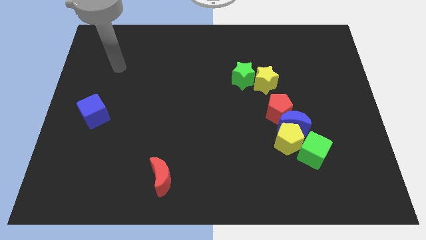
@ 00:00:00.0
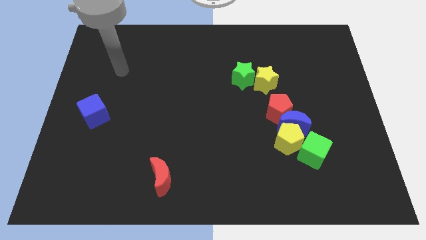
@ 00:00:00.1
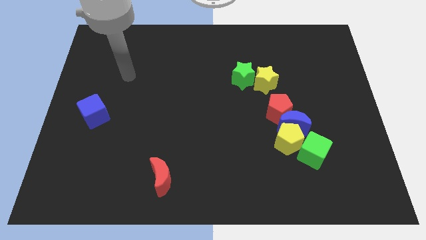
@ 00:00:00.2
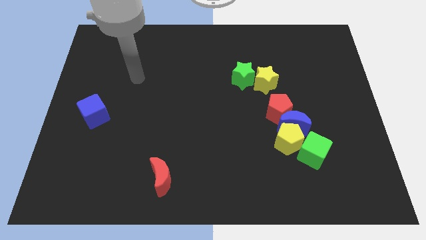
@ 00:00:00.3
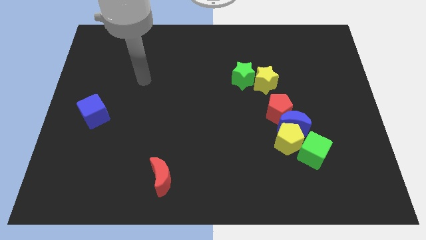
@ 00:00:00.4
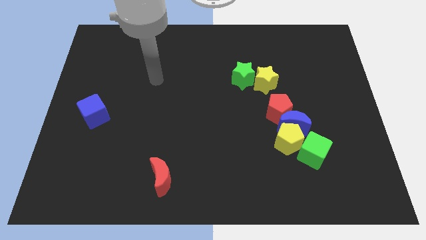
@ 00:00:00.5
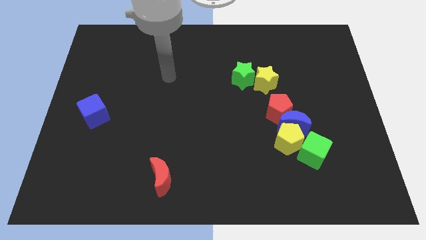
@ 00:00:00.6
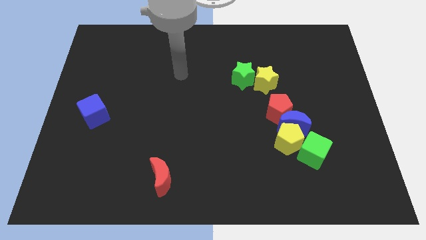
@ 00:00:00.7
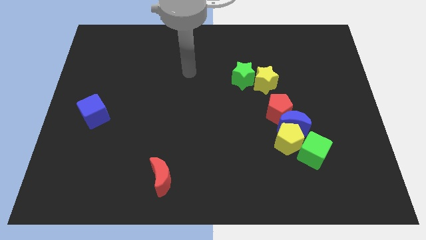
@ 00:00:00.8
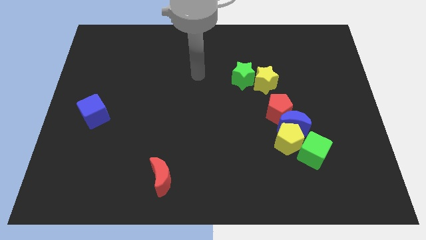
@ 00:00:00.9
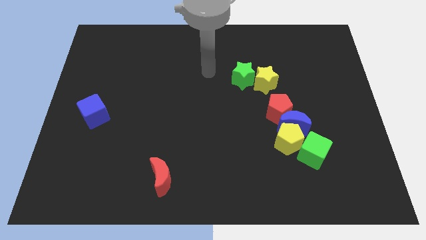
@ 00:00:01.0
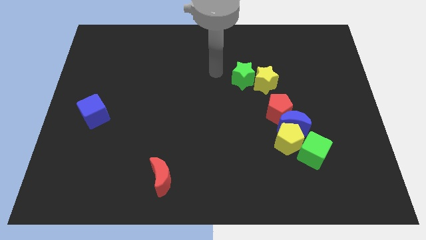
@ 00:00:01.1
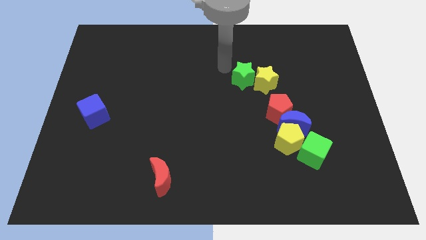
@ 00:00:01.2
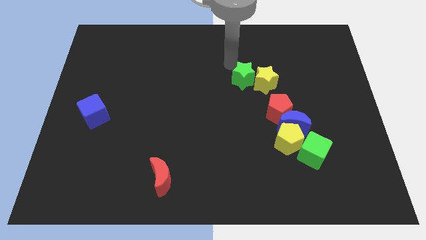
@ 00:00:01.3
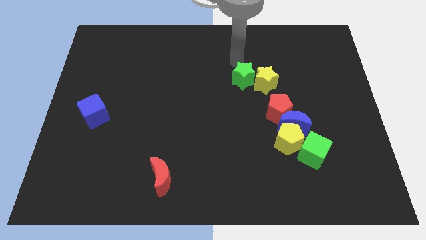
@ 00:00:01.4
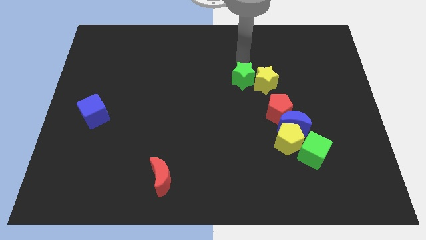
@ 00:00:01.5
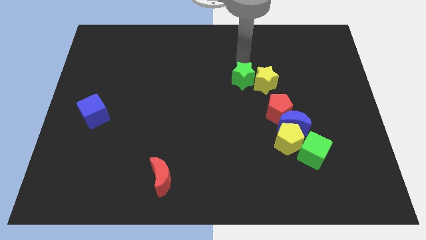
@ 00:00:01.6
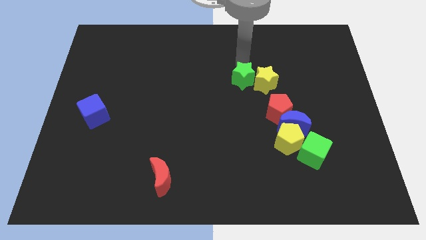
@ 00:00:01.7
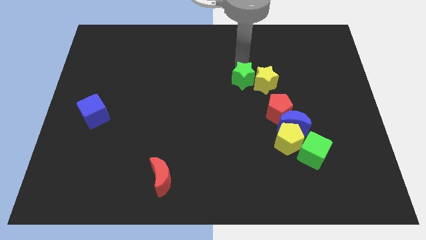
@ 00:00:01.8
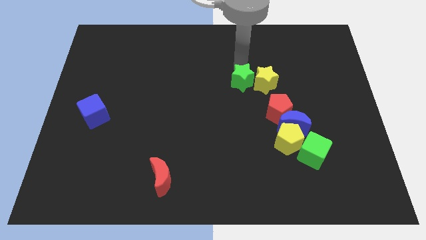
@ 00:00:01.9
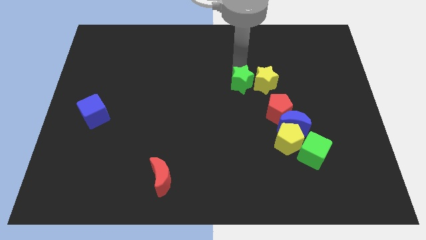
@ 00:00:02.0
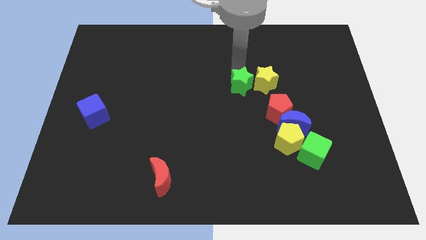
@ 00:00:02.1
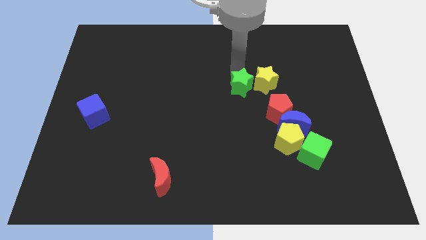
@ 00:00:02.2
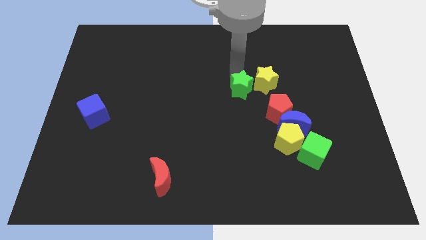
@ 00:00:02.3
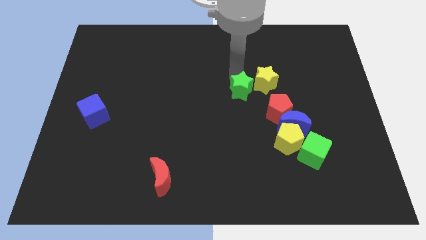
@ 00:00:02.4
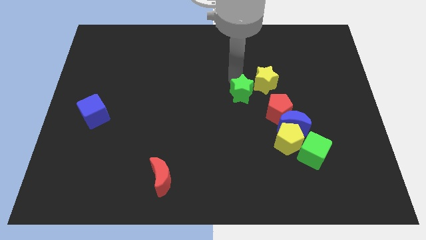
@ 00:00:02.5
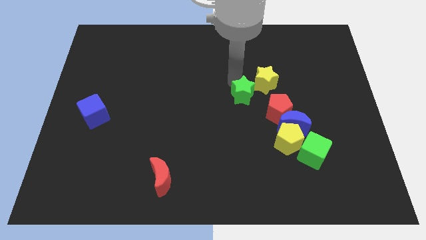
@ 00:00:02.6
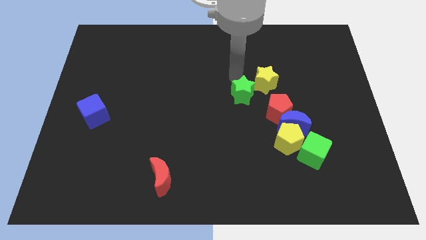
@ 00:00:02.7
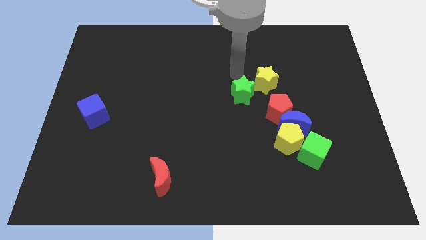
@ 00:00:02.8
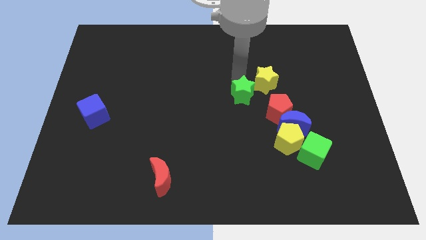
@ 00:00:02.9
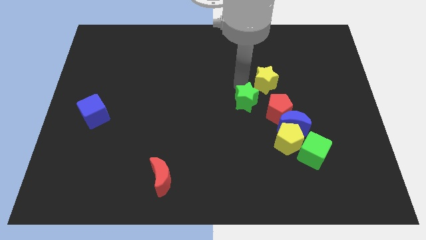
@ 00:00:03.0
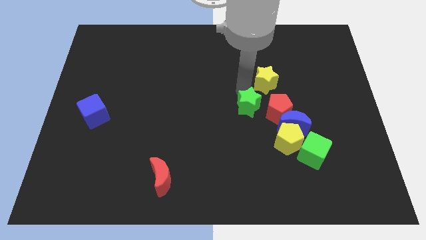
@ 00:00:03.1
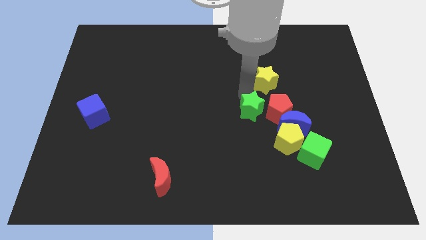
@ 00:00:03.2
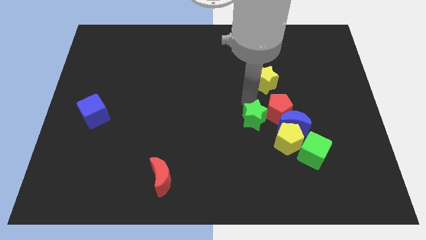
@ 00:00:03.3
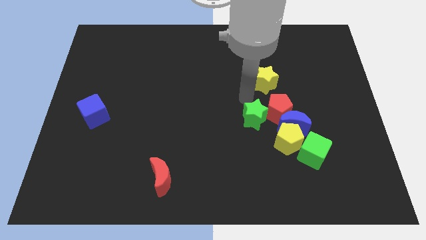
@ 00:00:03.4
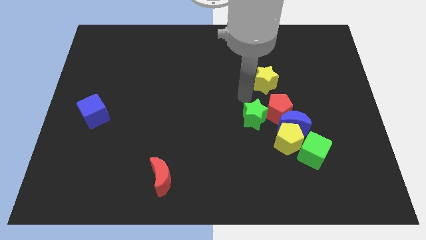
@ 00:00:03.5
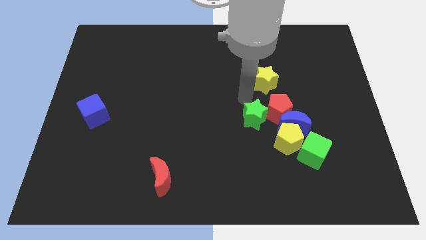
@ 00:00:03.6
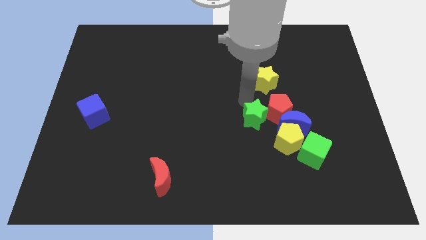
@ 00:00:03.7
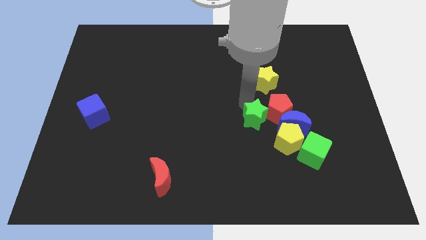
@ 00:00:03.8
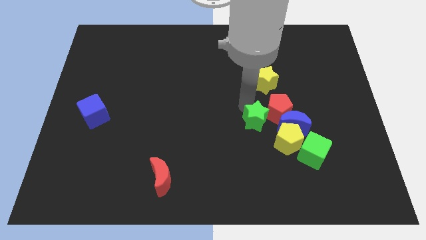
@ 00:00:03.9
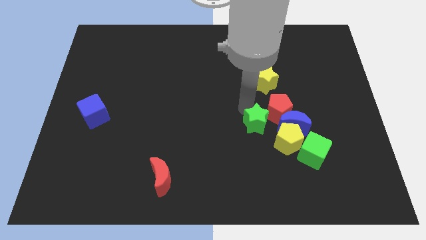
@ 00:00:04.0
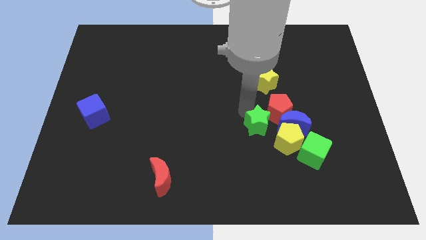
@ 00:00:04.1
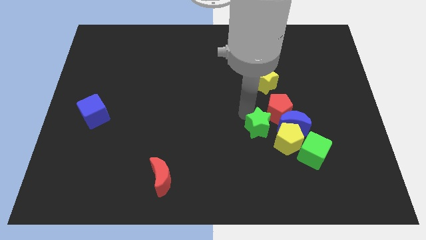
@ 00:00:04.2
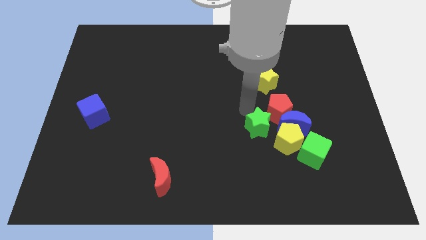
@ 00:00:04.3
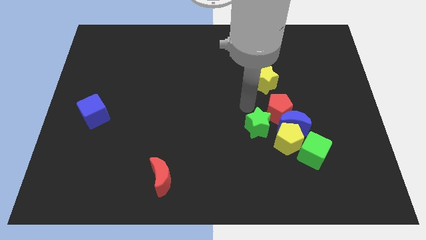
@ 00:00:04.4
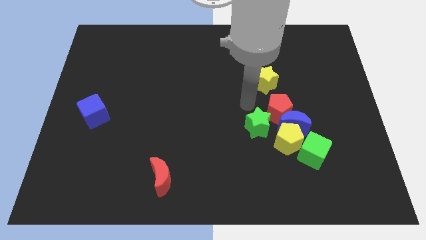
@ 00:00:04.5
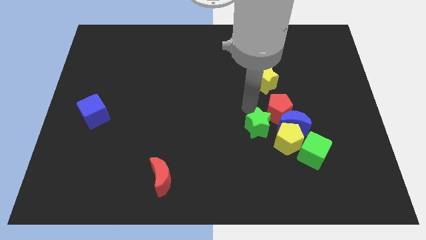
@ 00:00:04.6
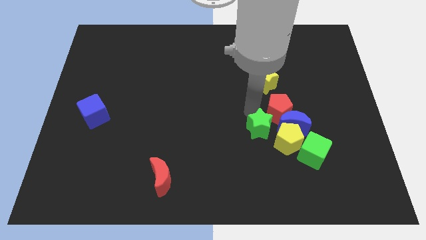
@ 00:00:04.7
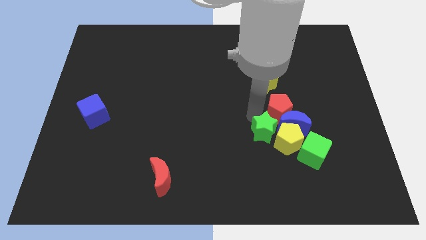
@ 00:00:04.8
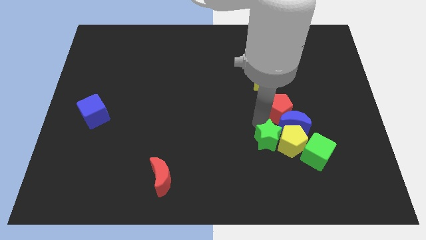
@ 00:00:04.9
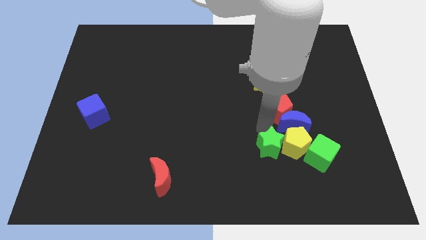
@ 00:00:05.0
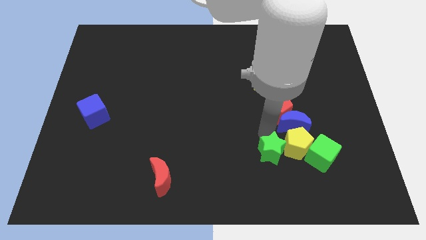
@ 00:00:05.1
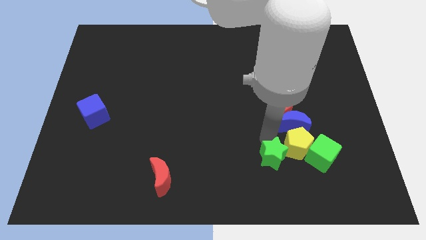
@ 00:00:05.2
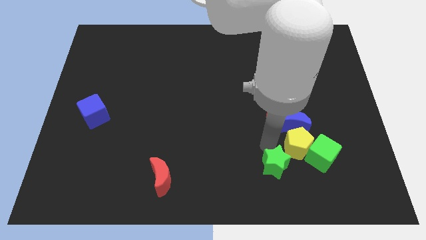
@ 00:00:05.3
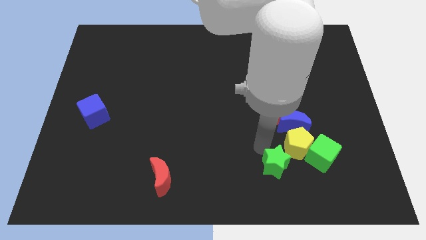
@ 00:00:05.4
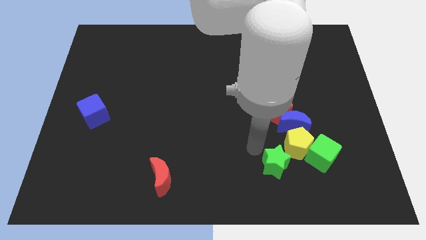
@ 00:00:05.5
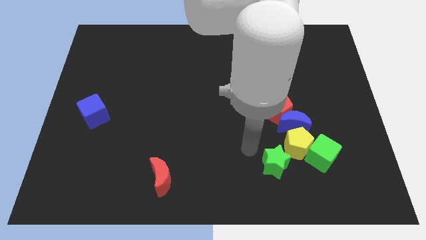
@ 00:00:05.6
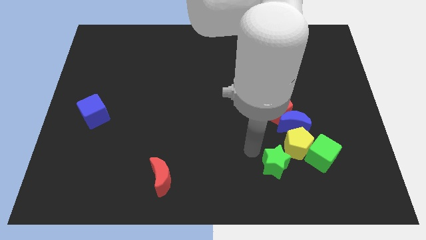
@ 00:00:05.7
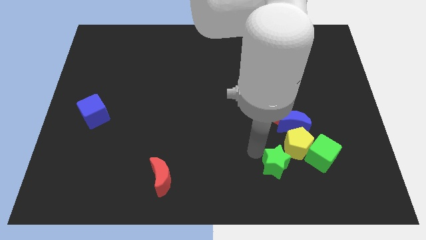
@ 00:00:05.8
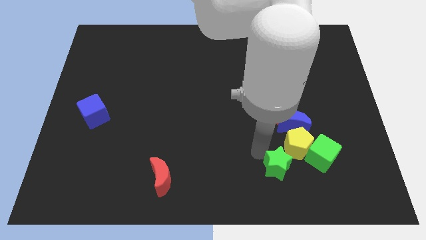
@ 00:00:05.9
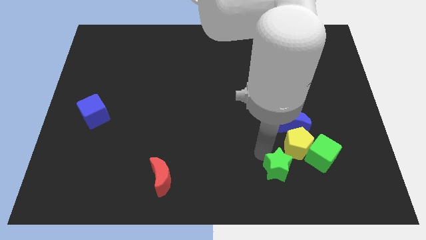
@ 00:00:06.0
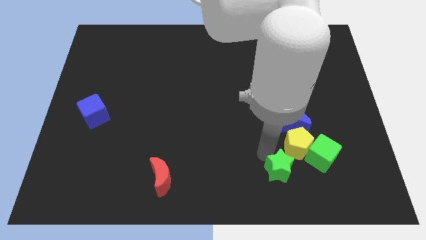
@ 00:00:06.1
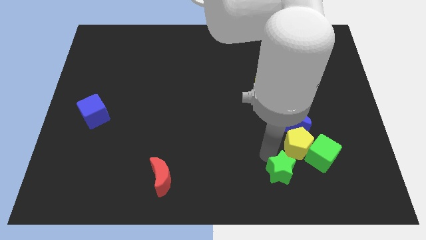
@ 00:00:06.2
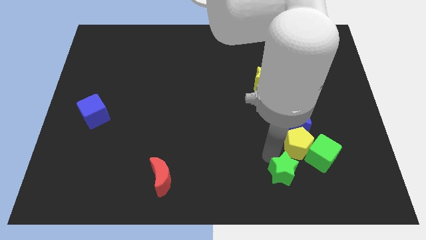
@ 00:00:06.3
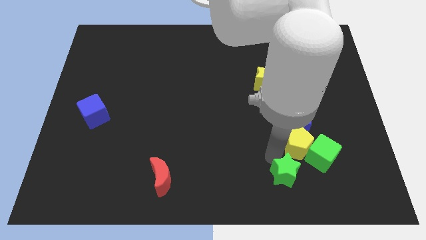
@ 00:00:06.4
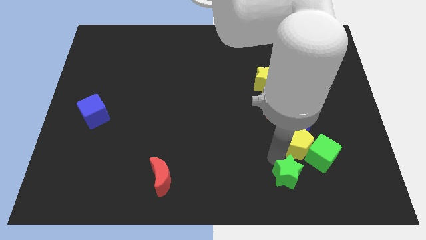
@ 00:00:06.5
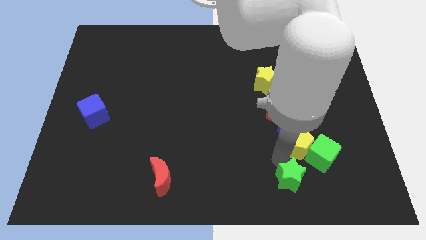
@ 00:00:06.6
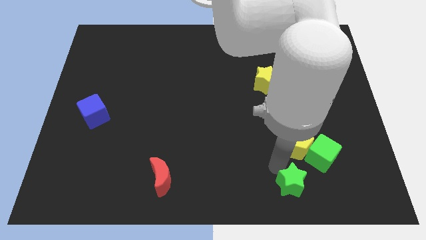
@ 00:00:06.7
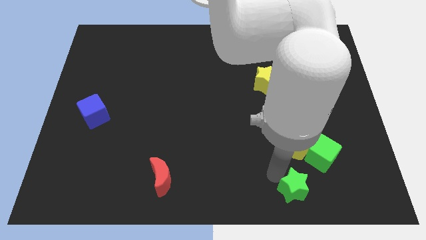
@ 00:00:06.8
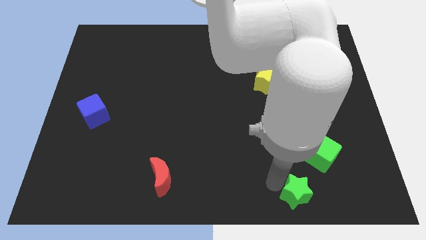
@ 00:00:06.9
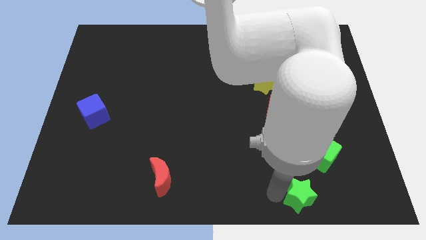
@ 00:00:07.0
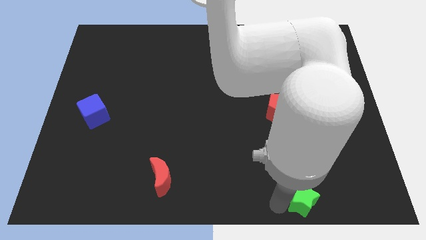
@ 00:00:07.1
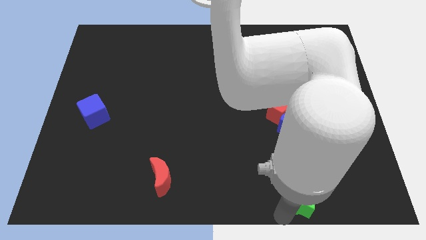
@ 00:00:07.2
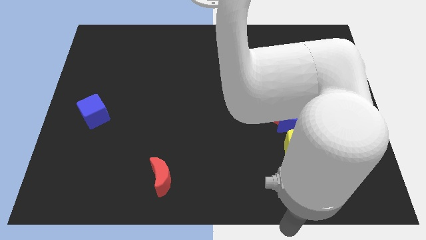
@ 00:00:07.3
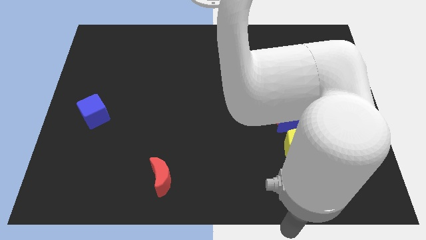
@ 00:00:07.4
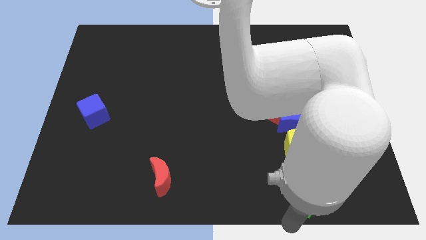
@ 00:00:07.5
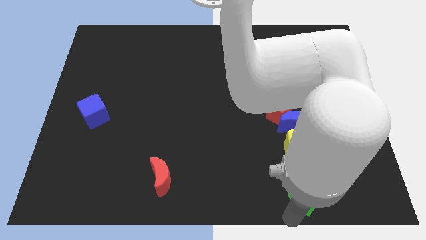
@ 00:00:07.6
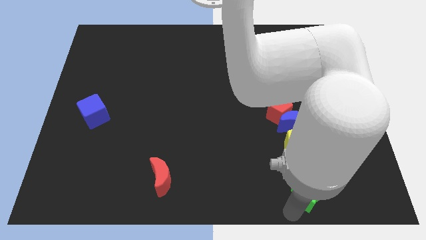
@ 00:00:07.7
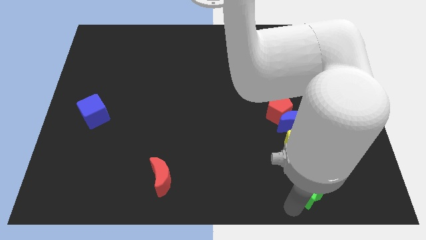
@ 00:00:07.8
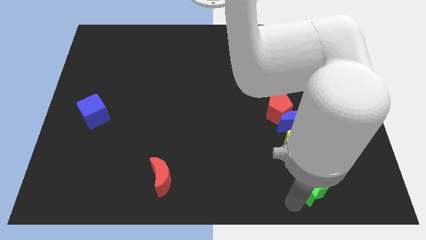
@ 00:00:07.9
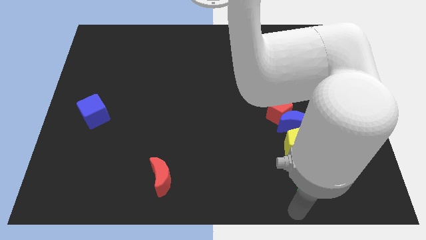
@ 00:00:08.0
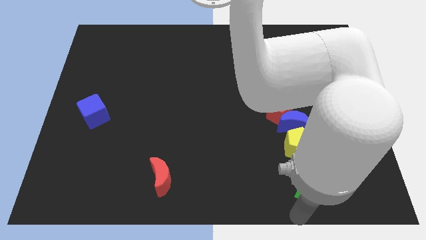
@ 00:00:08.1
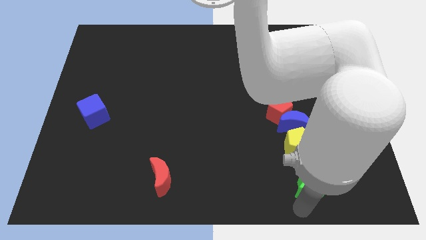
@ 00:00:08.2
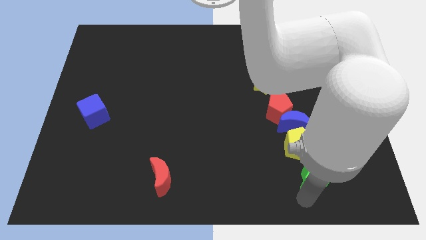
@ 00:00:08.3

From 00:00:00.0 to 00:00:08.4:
put the green star close to the green cube
